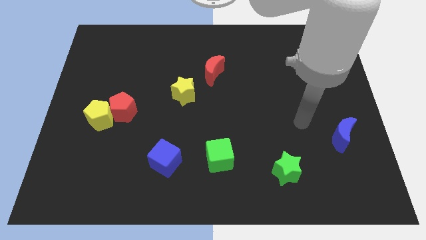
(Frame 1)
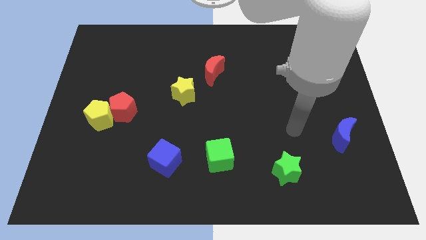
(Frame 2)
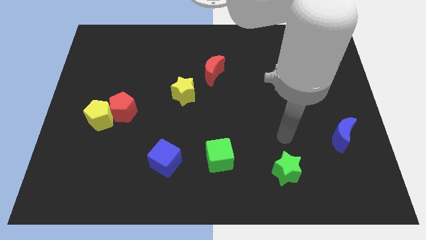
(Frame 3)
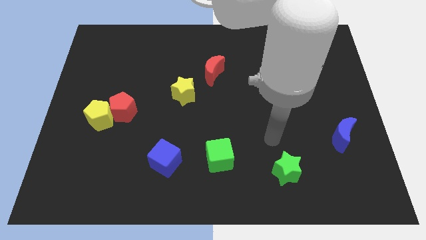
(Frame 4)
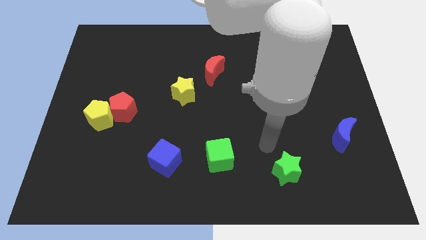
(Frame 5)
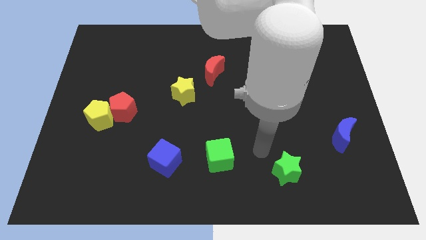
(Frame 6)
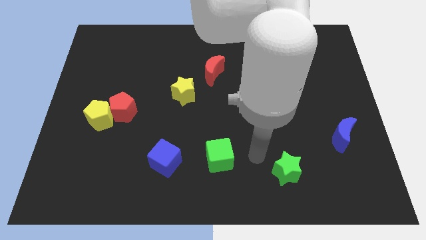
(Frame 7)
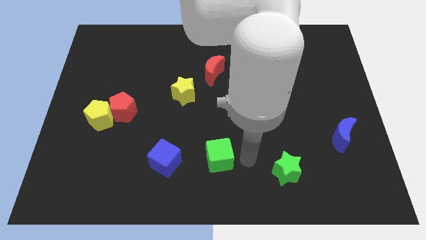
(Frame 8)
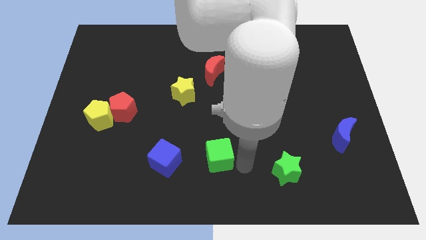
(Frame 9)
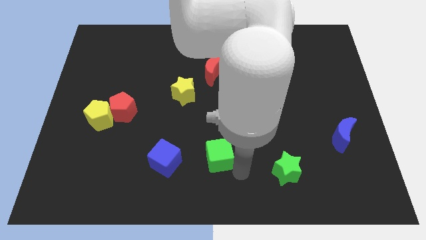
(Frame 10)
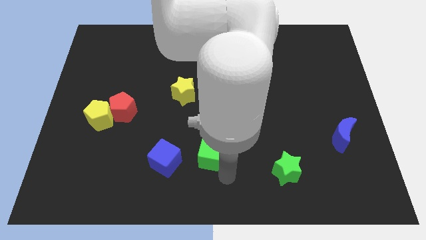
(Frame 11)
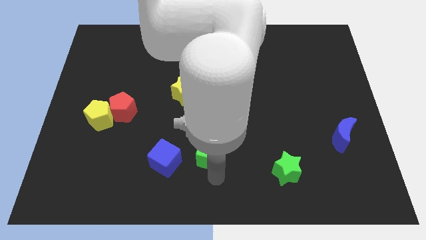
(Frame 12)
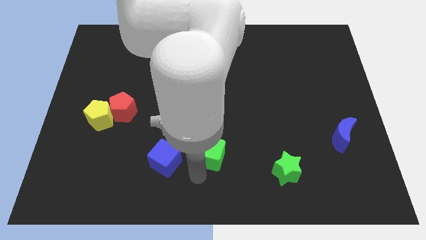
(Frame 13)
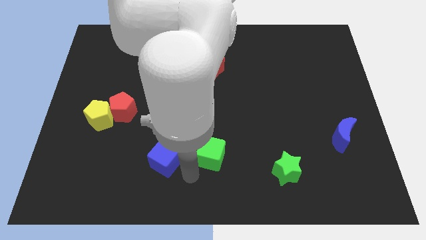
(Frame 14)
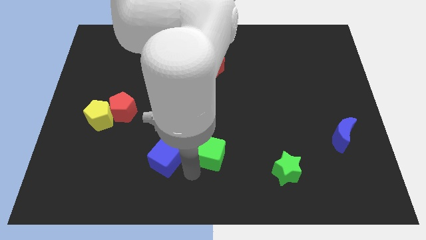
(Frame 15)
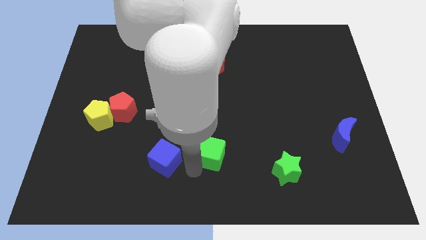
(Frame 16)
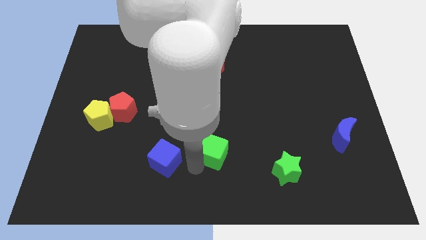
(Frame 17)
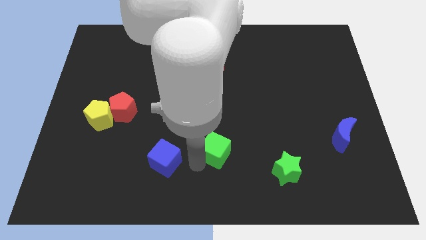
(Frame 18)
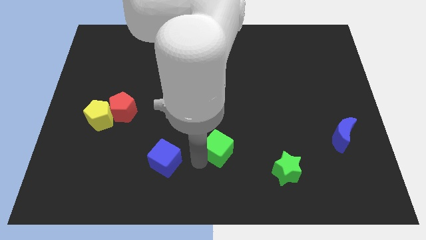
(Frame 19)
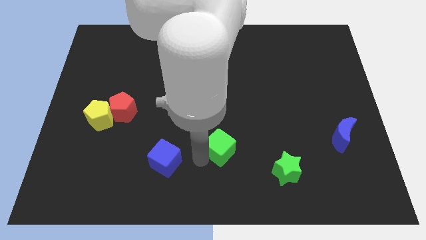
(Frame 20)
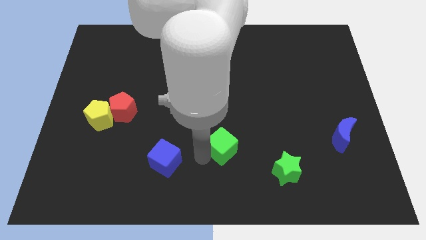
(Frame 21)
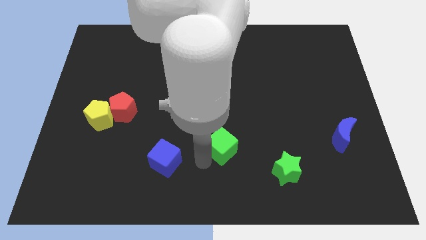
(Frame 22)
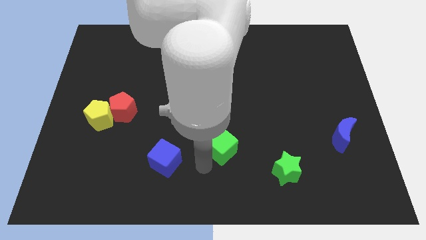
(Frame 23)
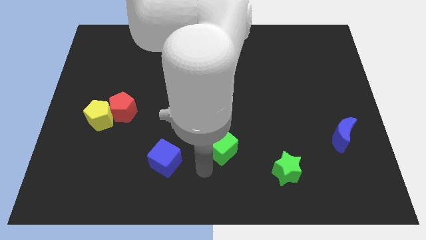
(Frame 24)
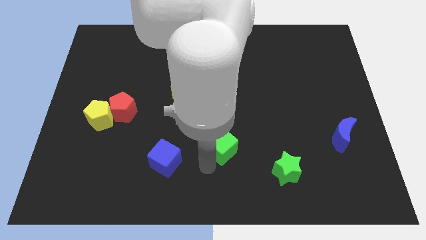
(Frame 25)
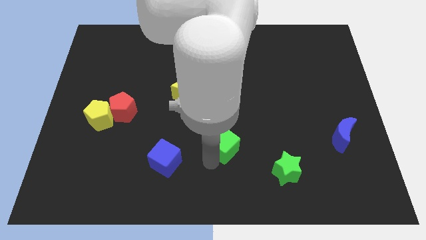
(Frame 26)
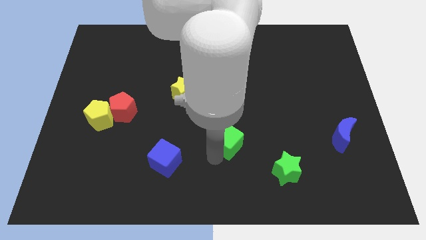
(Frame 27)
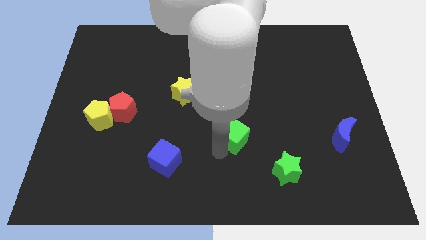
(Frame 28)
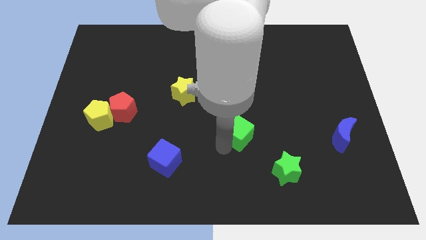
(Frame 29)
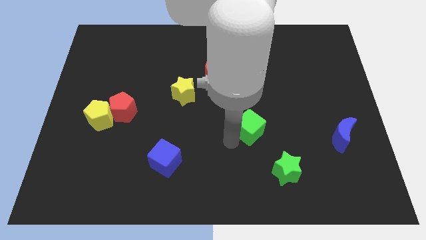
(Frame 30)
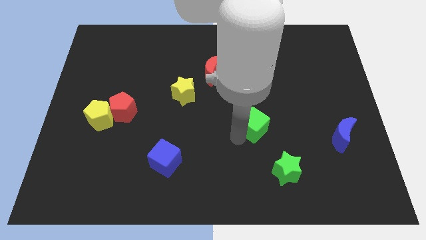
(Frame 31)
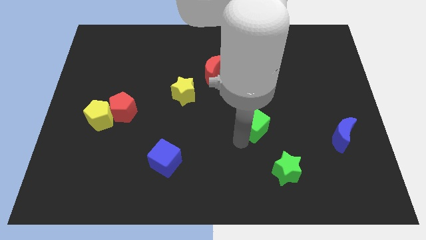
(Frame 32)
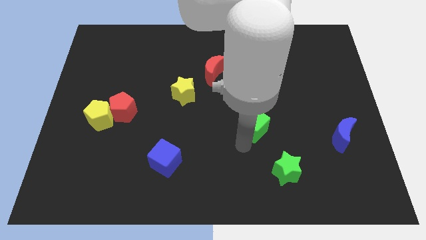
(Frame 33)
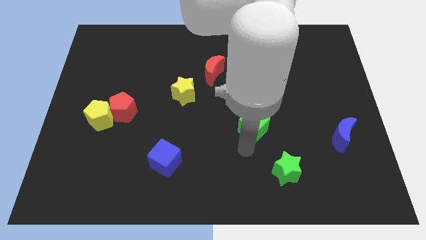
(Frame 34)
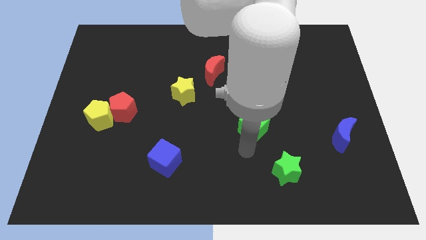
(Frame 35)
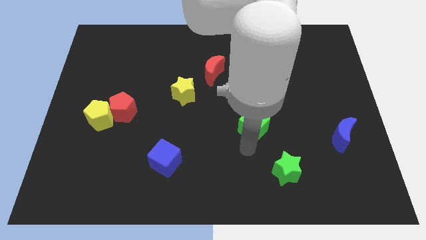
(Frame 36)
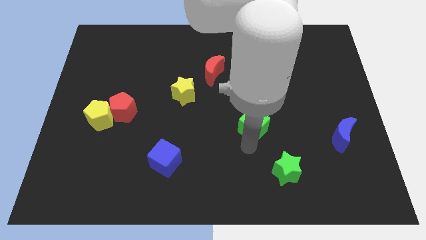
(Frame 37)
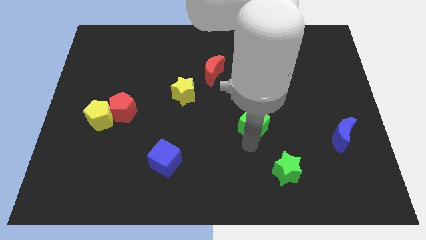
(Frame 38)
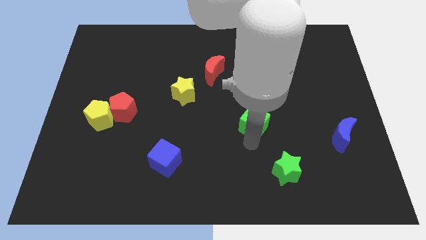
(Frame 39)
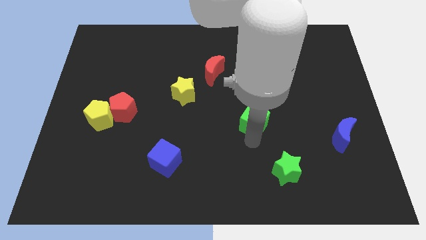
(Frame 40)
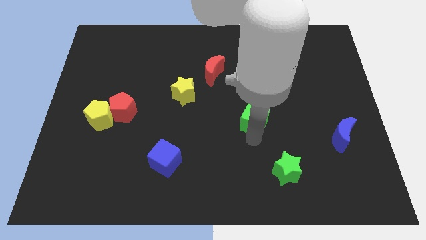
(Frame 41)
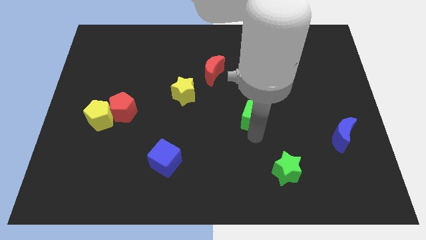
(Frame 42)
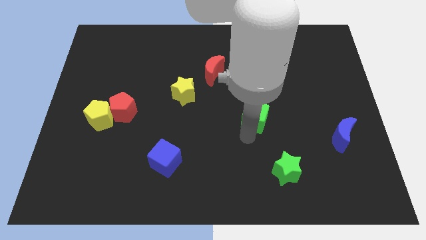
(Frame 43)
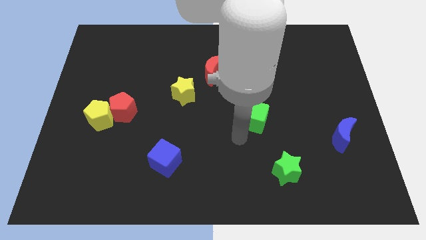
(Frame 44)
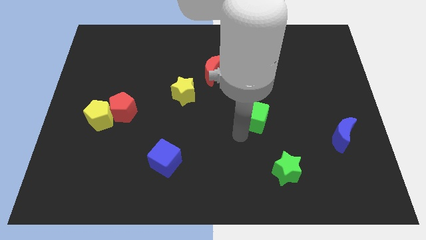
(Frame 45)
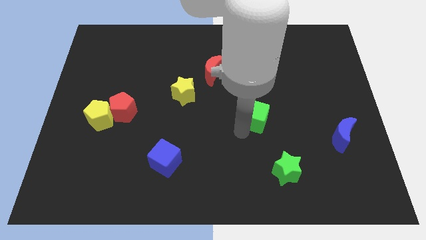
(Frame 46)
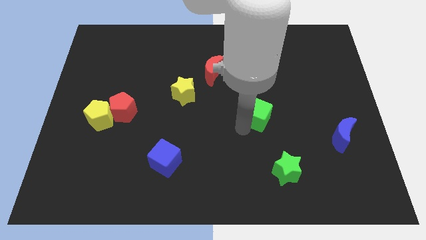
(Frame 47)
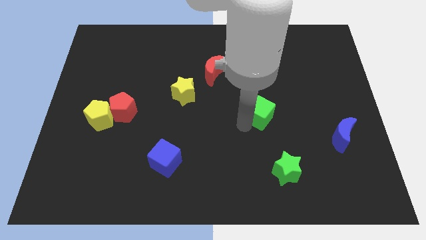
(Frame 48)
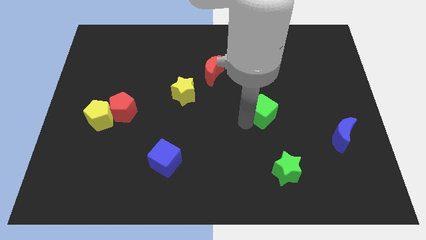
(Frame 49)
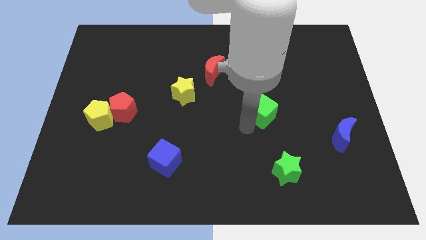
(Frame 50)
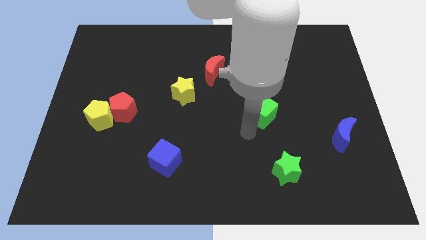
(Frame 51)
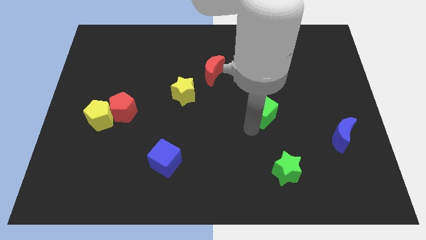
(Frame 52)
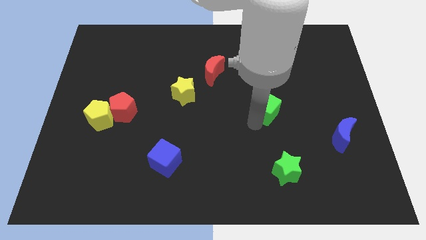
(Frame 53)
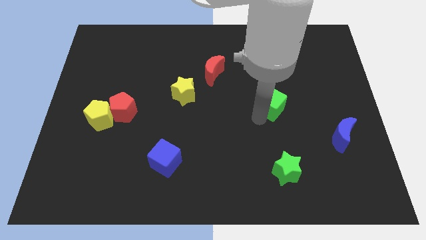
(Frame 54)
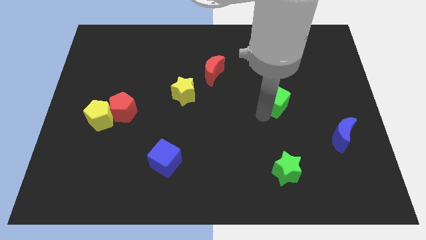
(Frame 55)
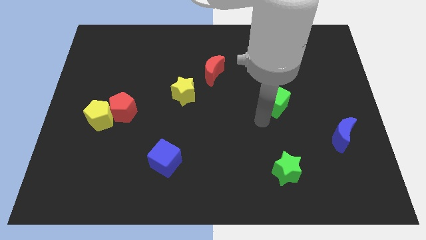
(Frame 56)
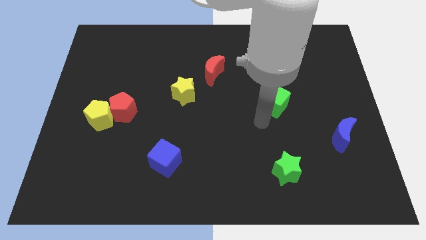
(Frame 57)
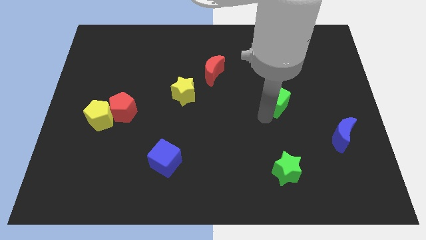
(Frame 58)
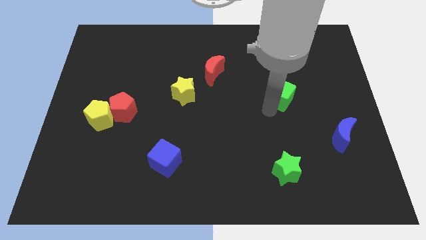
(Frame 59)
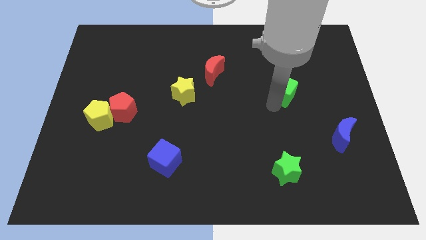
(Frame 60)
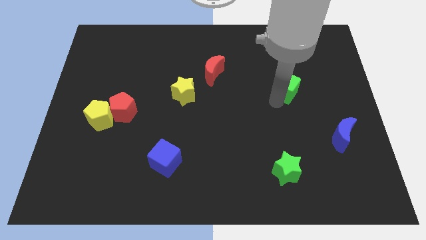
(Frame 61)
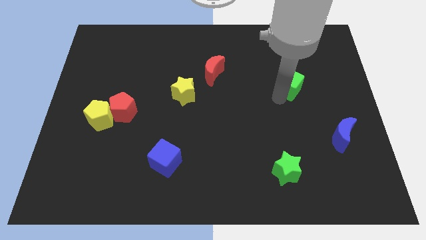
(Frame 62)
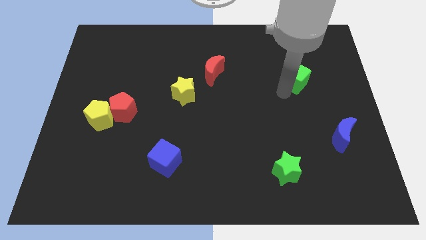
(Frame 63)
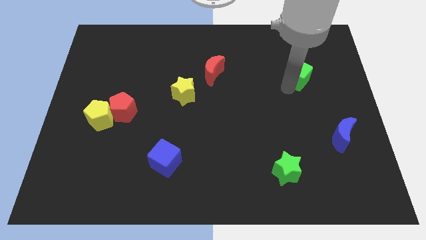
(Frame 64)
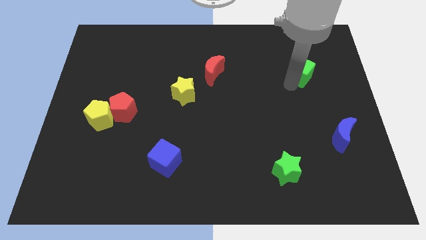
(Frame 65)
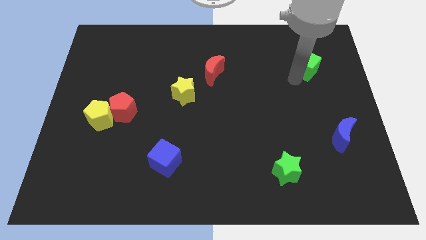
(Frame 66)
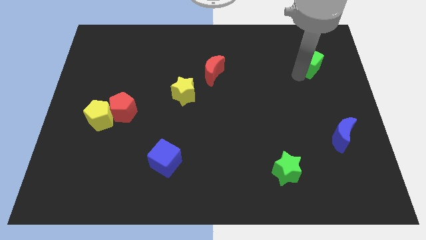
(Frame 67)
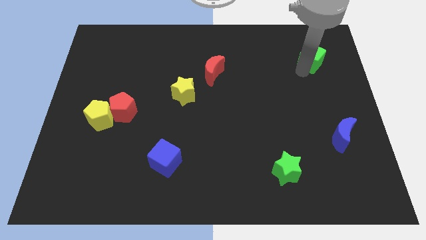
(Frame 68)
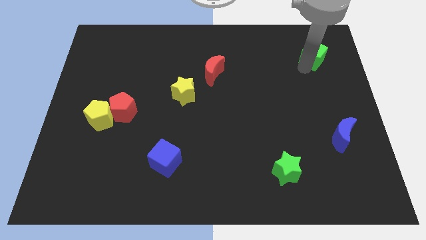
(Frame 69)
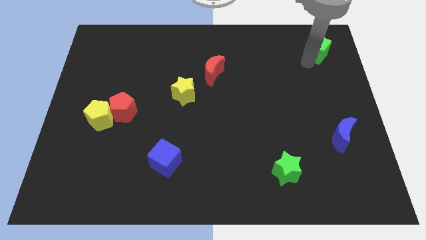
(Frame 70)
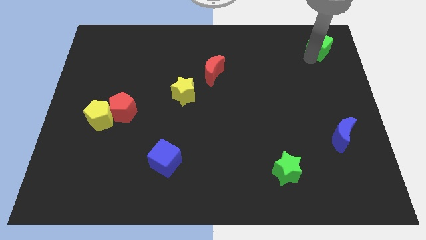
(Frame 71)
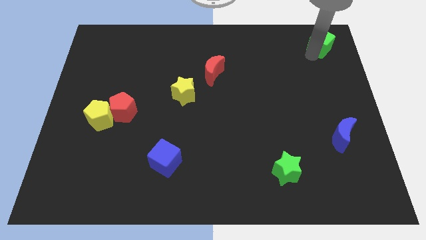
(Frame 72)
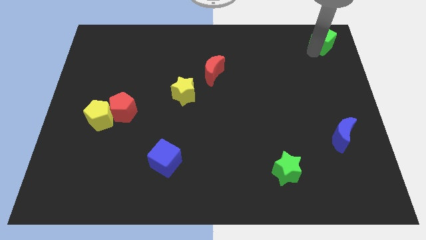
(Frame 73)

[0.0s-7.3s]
push the green cube to the top right
